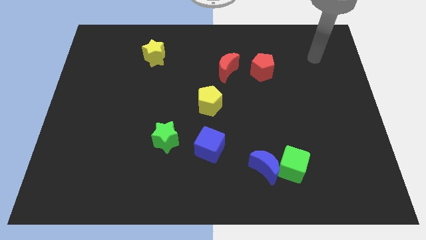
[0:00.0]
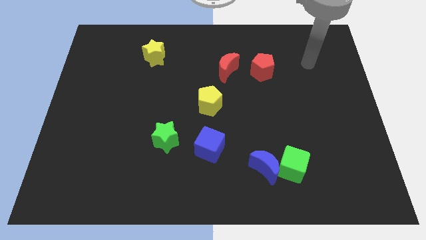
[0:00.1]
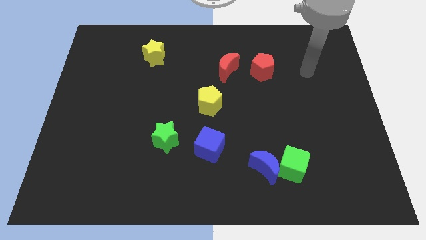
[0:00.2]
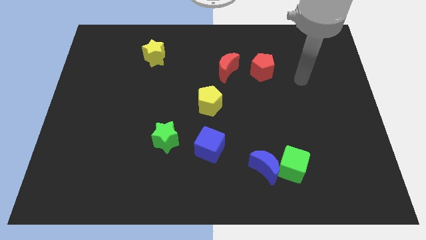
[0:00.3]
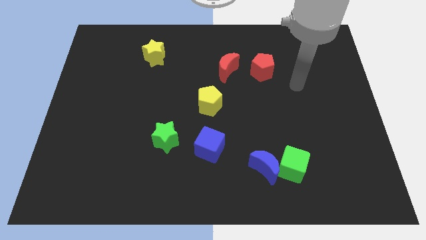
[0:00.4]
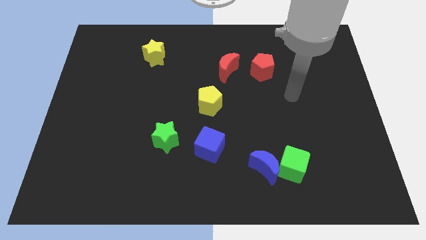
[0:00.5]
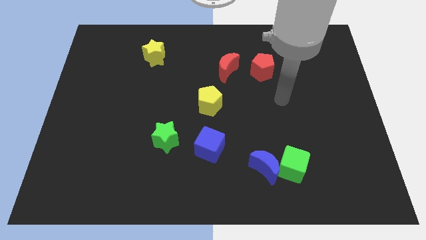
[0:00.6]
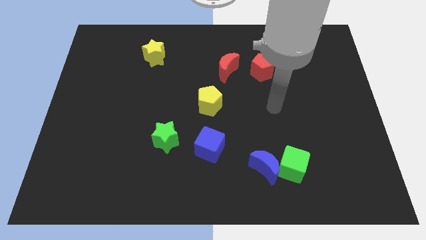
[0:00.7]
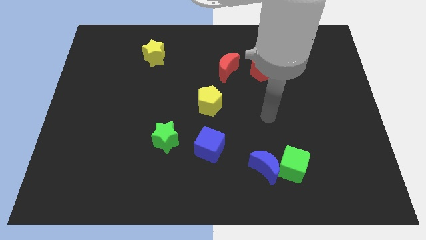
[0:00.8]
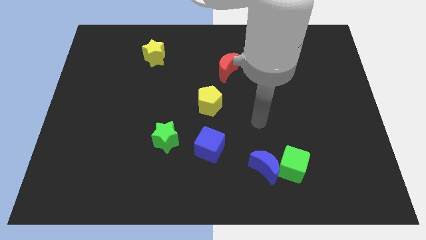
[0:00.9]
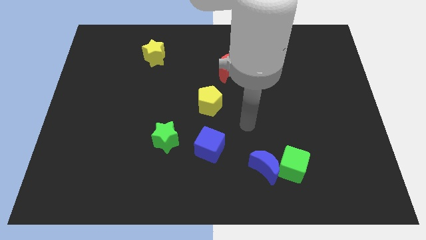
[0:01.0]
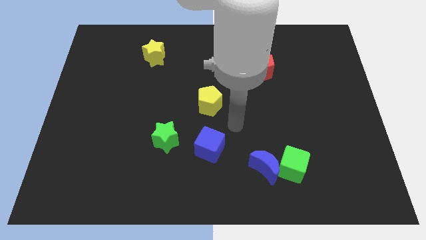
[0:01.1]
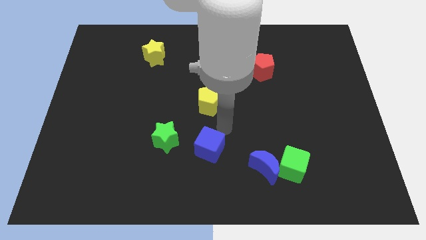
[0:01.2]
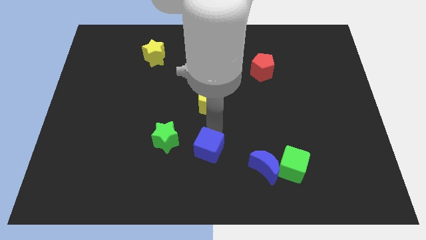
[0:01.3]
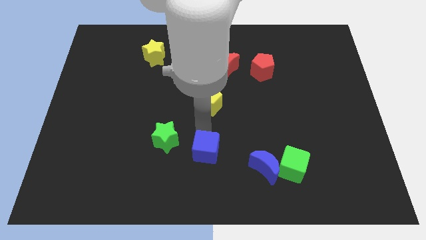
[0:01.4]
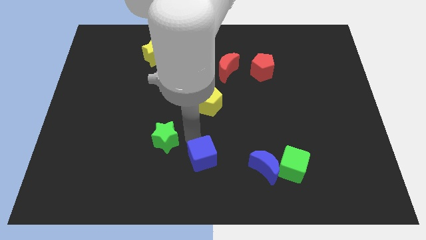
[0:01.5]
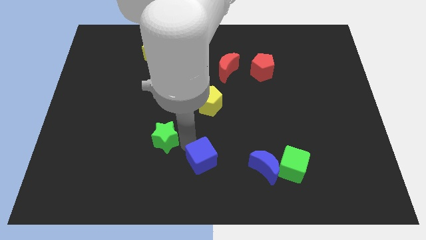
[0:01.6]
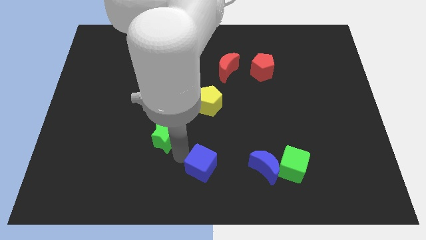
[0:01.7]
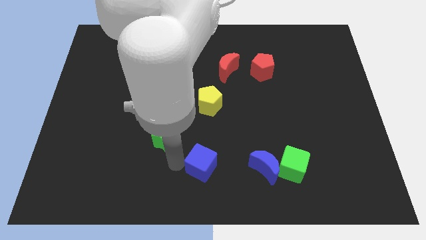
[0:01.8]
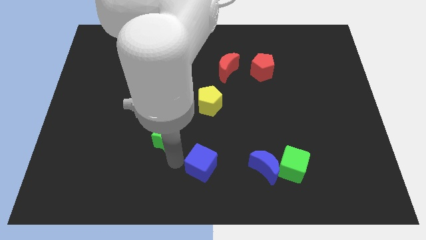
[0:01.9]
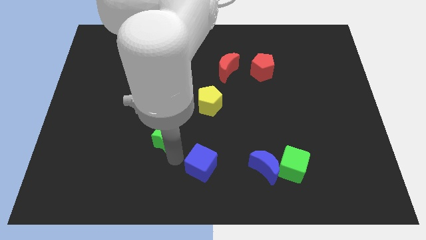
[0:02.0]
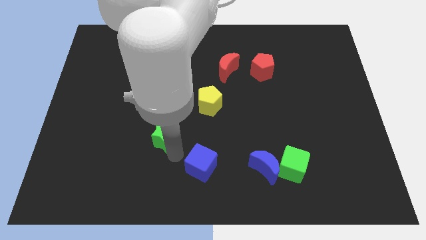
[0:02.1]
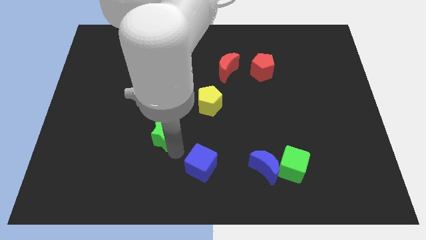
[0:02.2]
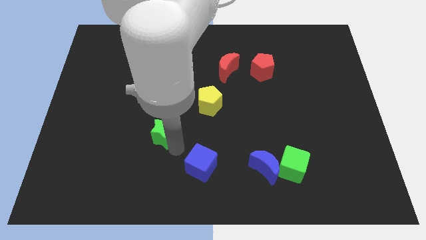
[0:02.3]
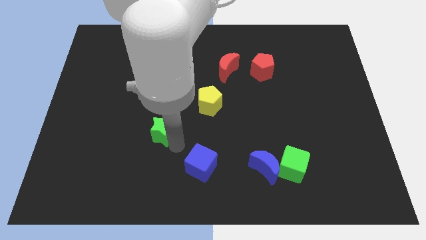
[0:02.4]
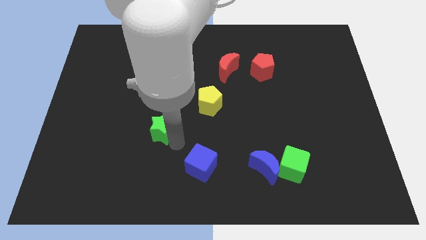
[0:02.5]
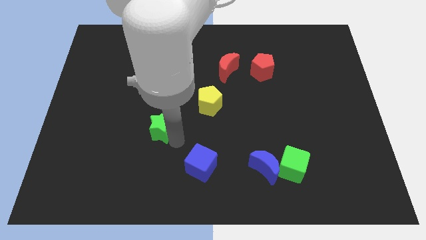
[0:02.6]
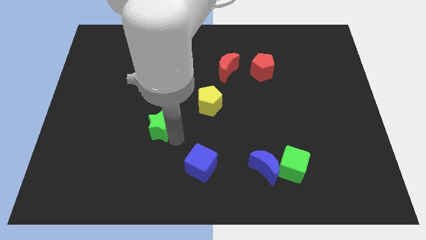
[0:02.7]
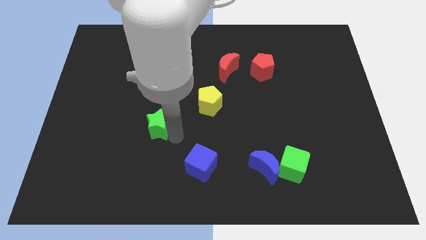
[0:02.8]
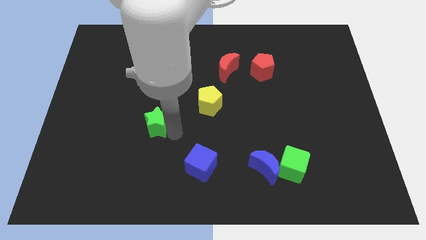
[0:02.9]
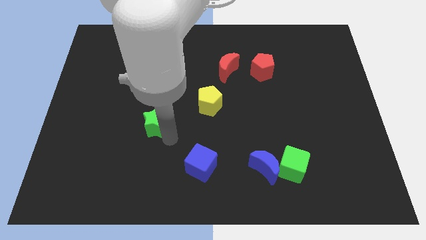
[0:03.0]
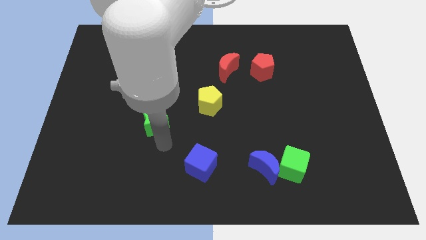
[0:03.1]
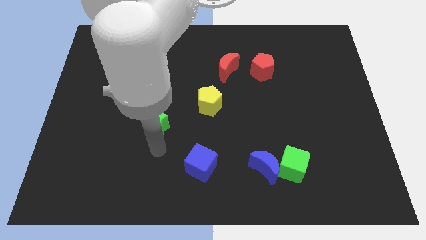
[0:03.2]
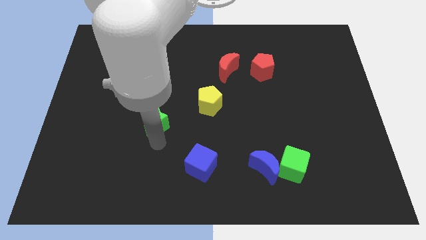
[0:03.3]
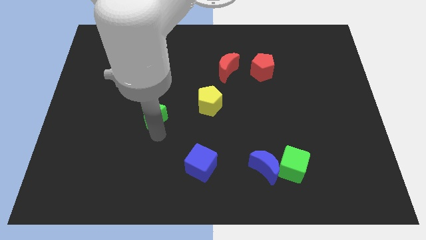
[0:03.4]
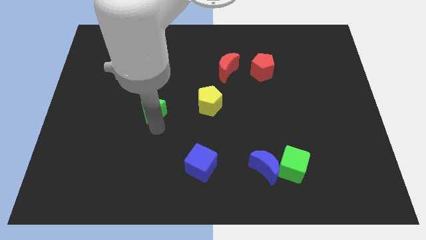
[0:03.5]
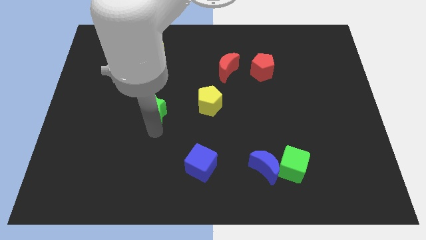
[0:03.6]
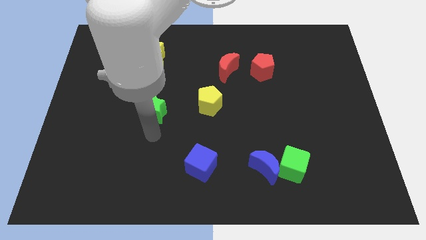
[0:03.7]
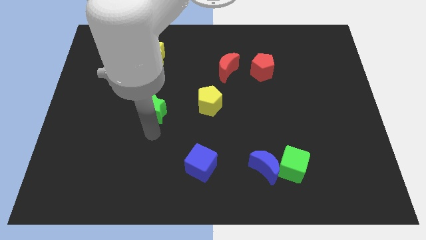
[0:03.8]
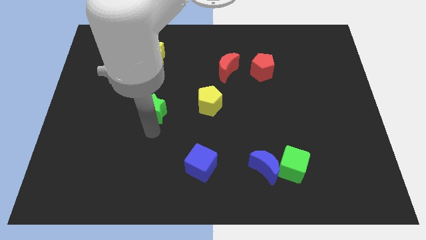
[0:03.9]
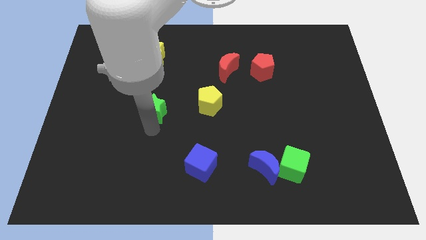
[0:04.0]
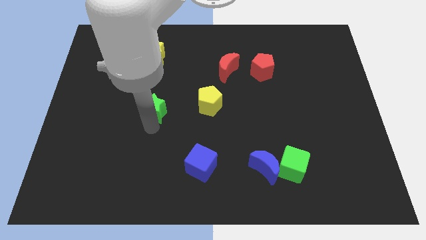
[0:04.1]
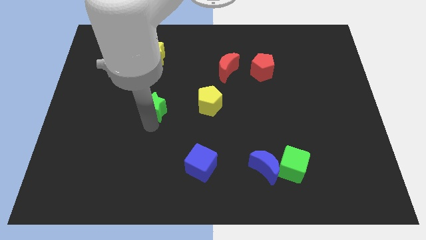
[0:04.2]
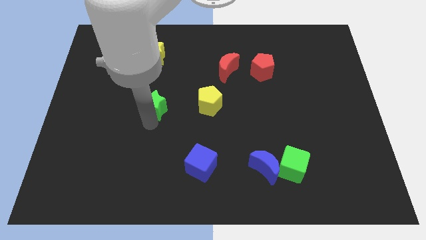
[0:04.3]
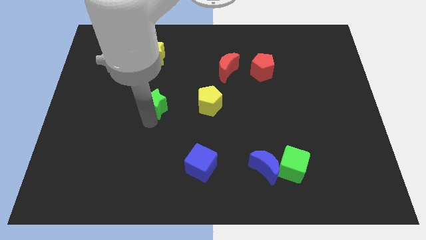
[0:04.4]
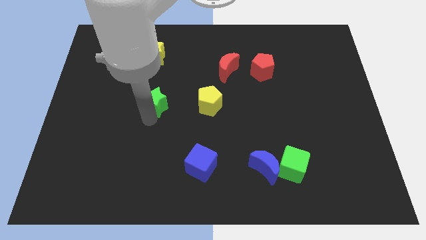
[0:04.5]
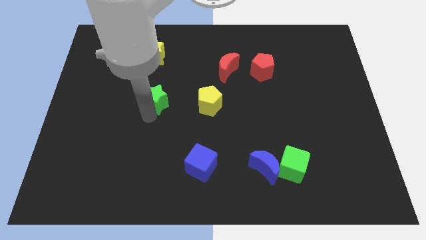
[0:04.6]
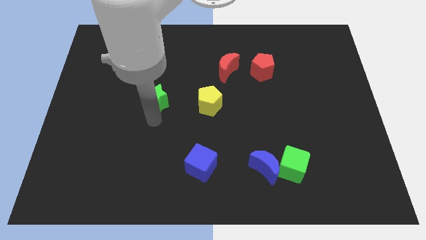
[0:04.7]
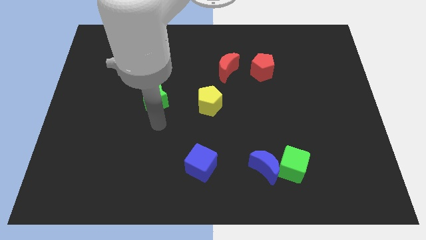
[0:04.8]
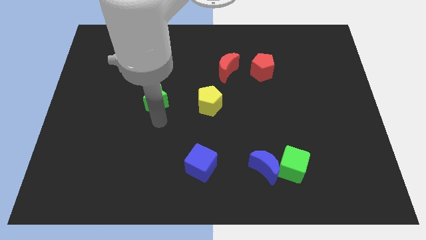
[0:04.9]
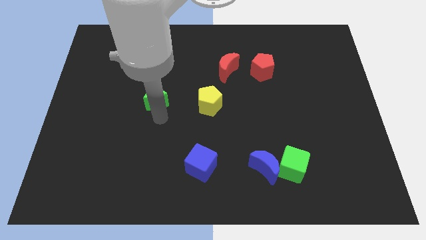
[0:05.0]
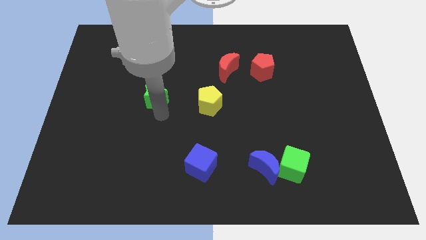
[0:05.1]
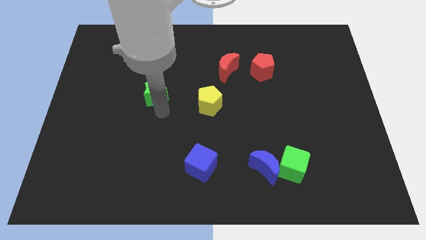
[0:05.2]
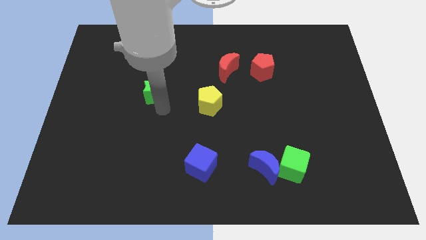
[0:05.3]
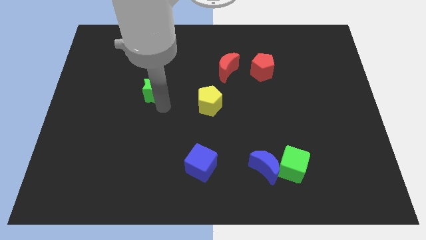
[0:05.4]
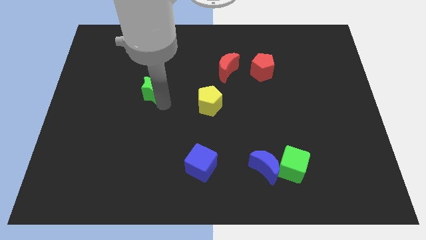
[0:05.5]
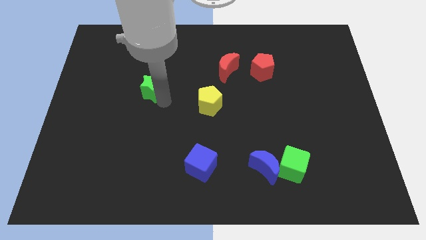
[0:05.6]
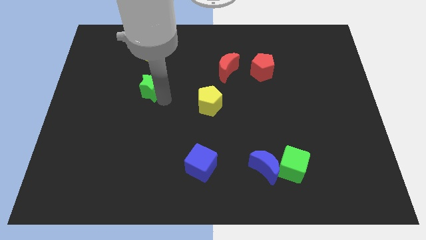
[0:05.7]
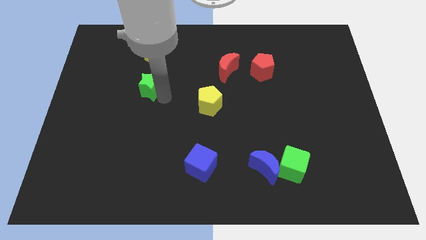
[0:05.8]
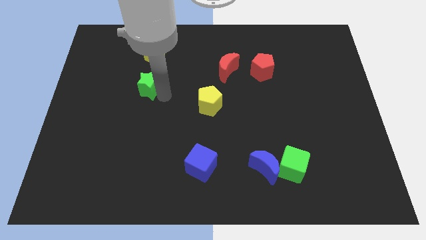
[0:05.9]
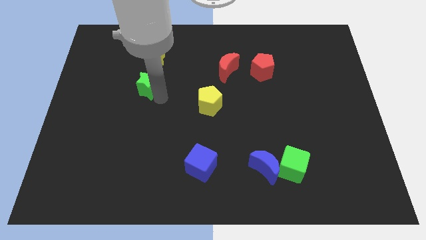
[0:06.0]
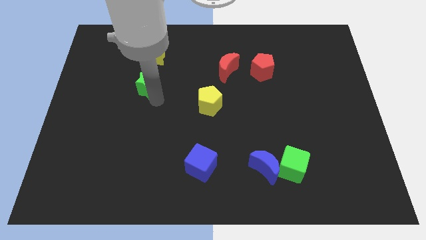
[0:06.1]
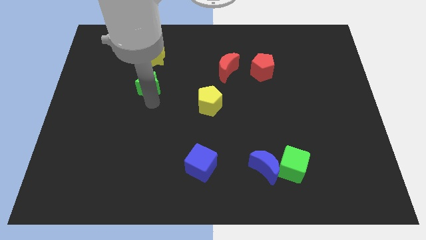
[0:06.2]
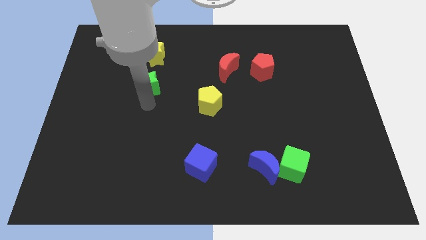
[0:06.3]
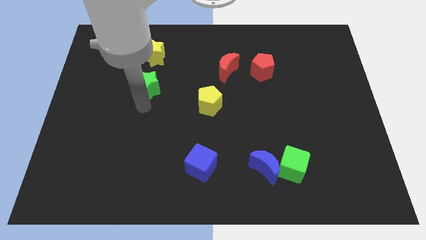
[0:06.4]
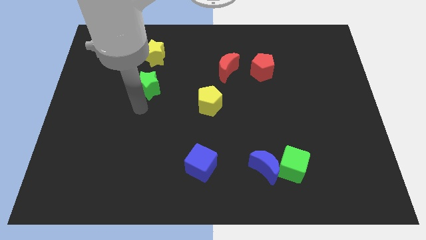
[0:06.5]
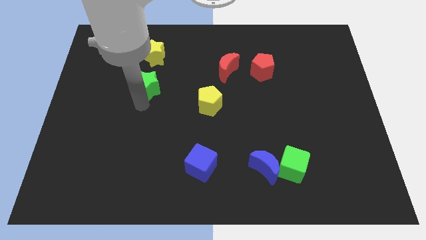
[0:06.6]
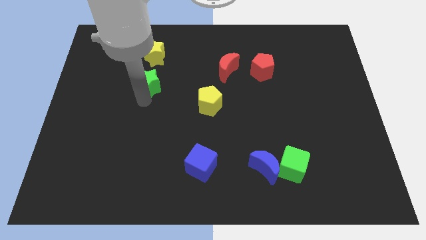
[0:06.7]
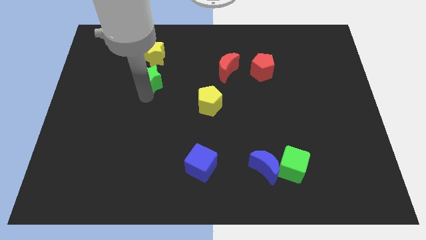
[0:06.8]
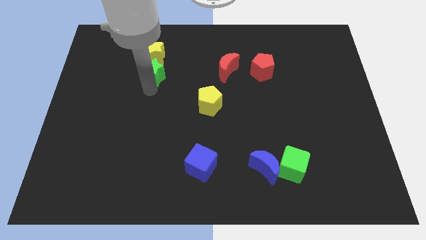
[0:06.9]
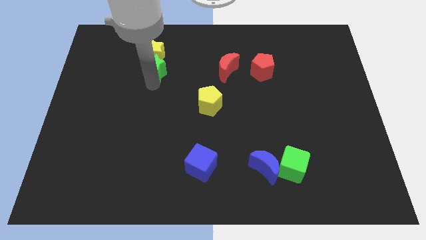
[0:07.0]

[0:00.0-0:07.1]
slide the green star close to the yellow star
